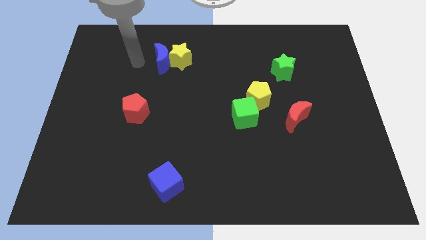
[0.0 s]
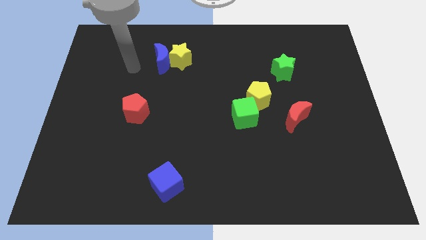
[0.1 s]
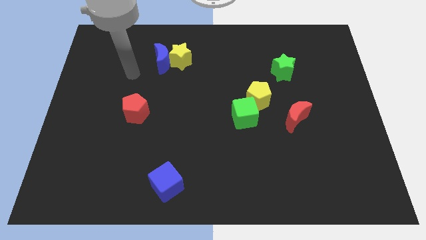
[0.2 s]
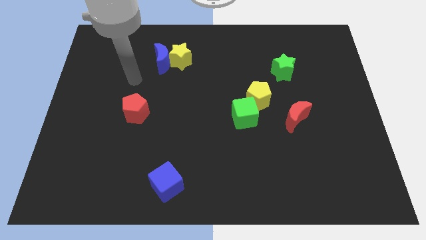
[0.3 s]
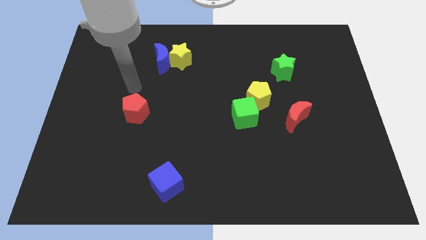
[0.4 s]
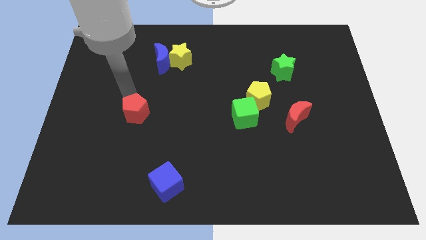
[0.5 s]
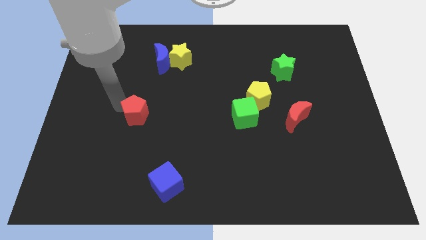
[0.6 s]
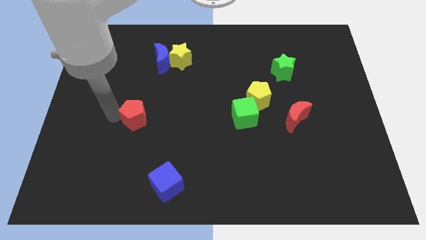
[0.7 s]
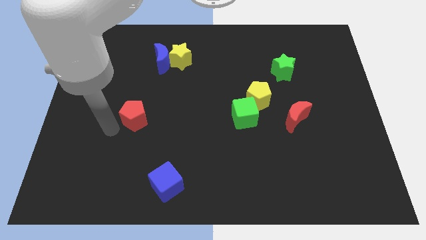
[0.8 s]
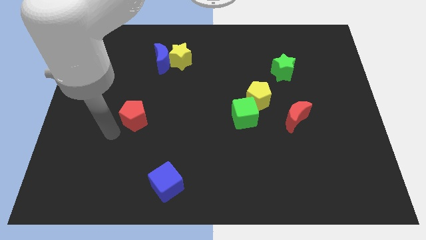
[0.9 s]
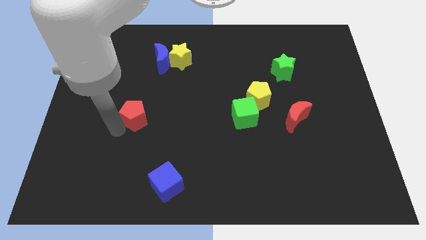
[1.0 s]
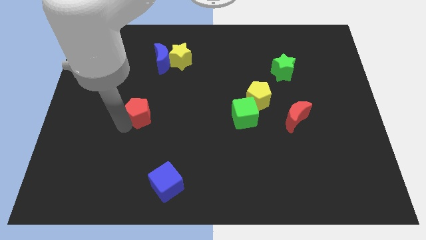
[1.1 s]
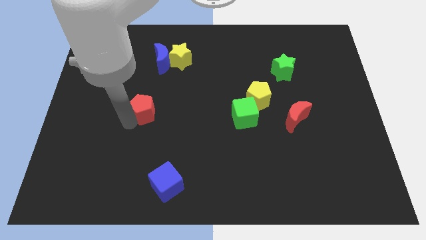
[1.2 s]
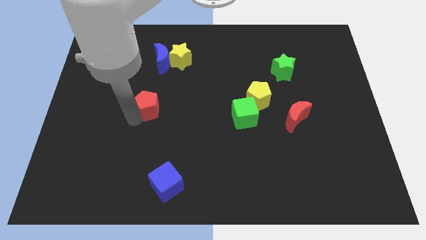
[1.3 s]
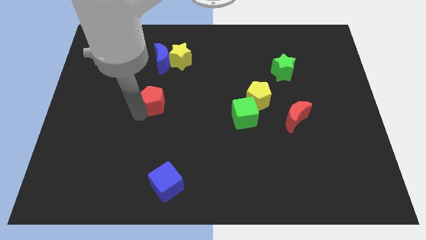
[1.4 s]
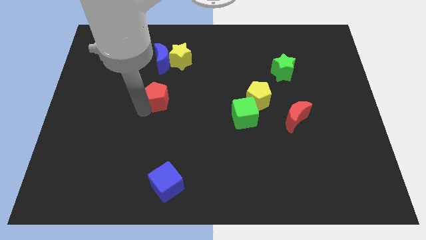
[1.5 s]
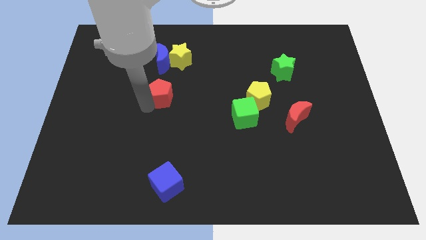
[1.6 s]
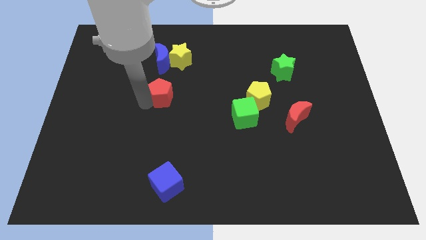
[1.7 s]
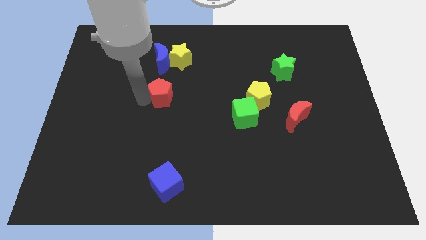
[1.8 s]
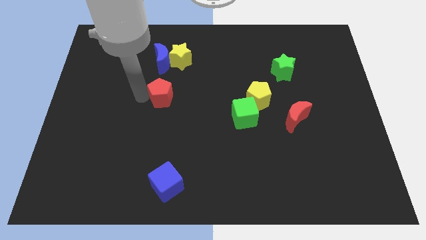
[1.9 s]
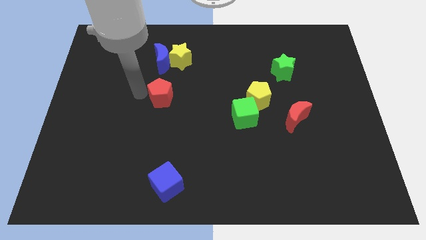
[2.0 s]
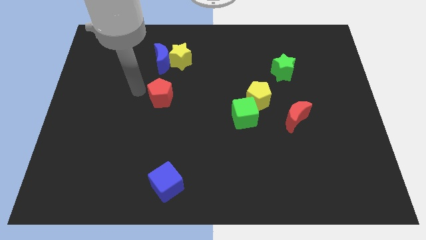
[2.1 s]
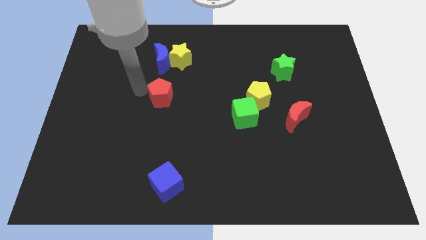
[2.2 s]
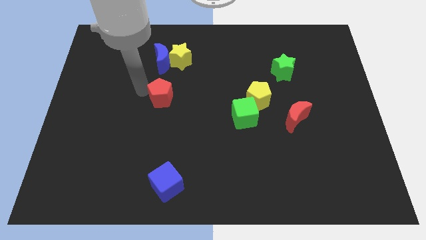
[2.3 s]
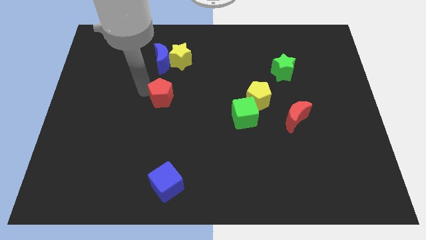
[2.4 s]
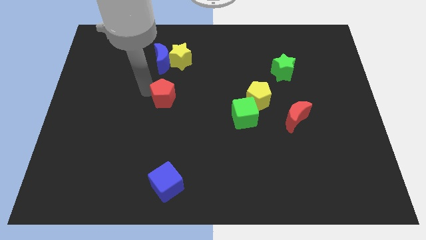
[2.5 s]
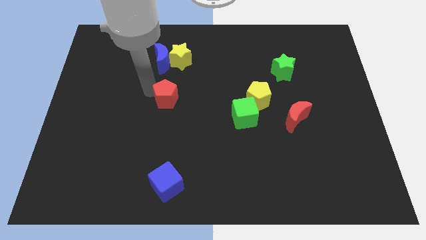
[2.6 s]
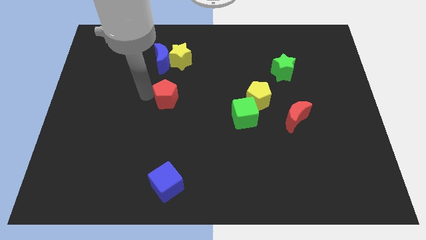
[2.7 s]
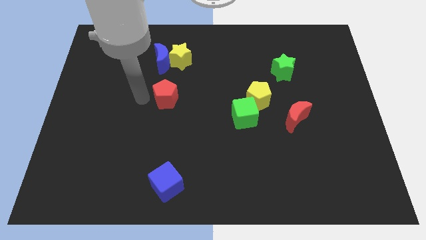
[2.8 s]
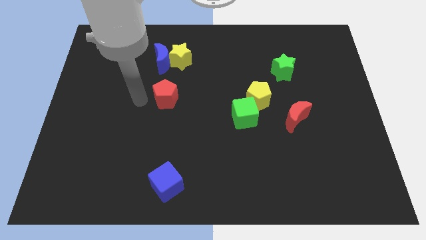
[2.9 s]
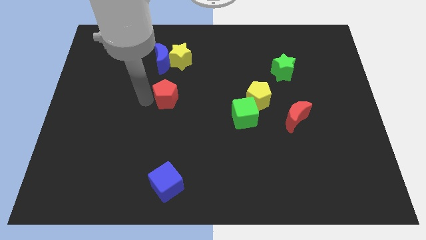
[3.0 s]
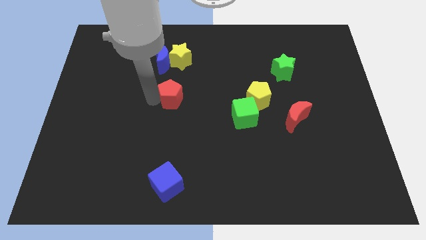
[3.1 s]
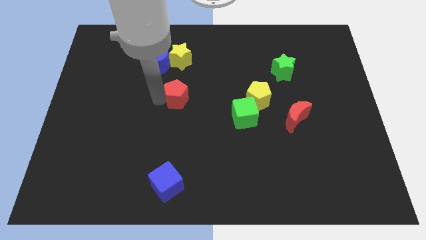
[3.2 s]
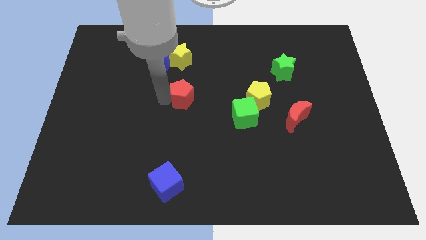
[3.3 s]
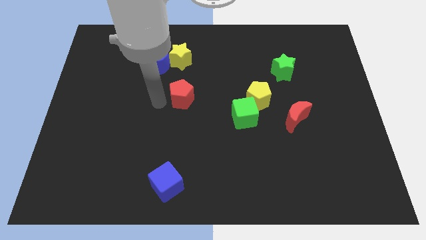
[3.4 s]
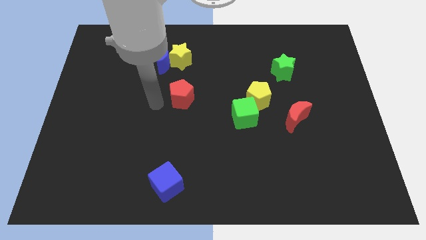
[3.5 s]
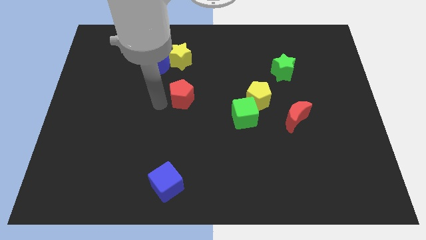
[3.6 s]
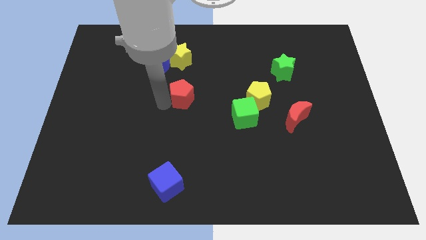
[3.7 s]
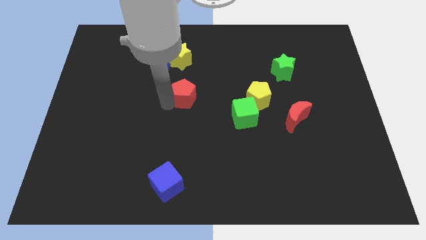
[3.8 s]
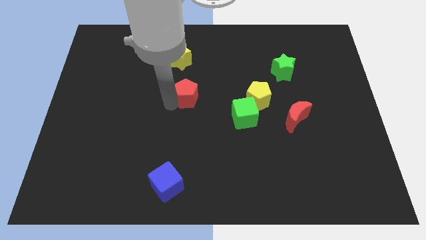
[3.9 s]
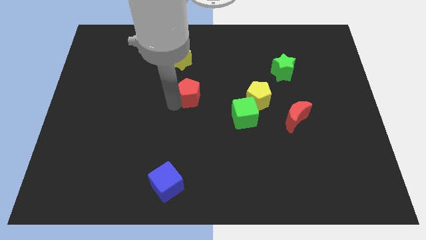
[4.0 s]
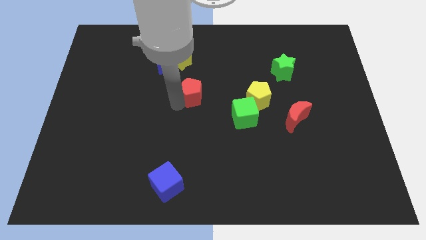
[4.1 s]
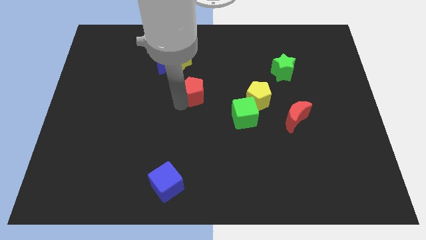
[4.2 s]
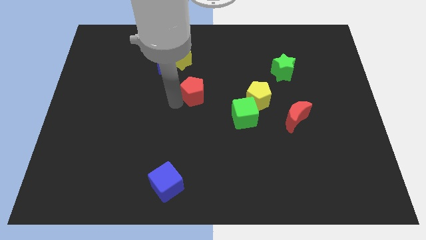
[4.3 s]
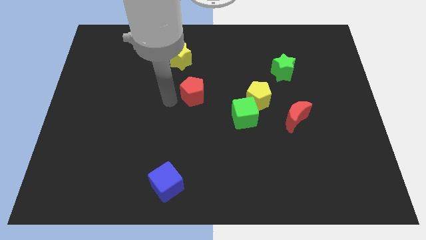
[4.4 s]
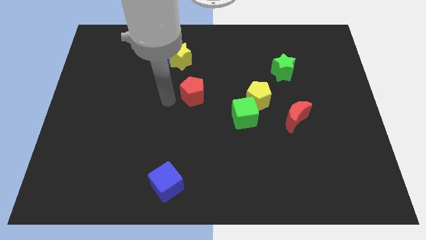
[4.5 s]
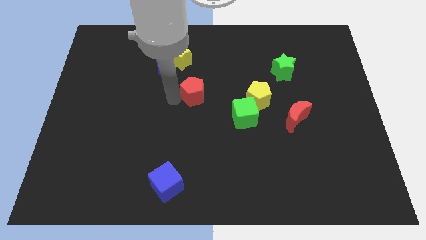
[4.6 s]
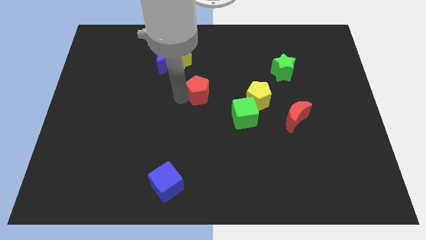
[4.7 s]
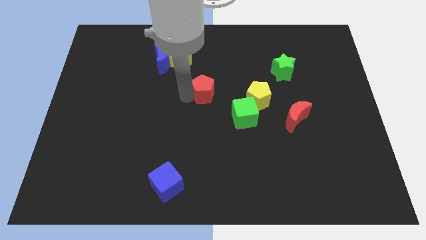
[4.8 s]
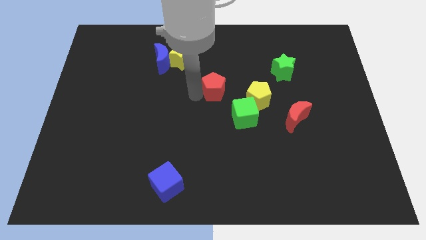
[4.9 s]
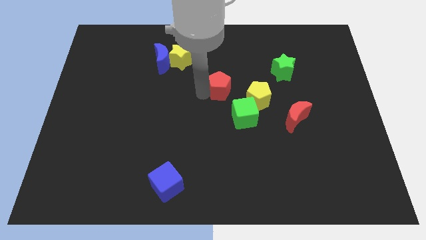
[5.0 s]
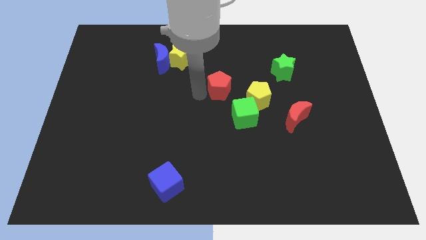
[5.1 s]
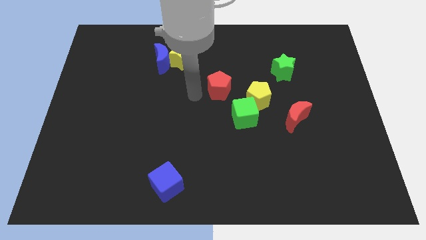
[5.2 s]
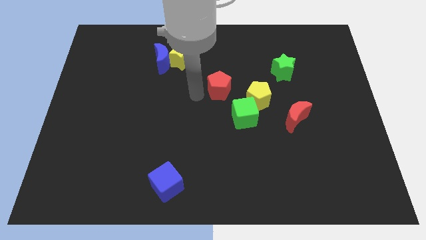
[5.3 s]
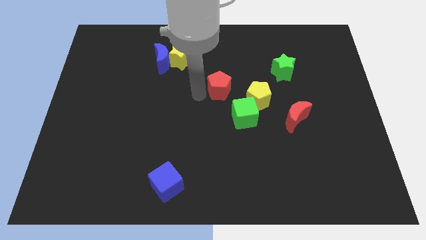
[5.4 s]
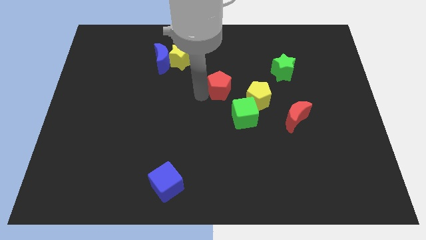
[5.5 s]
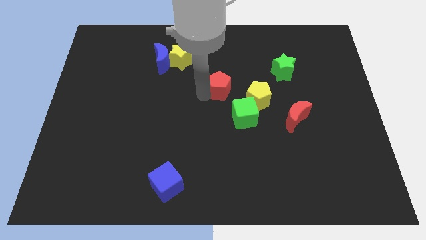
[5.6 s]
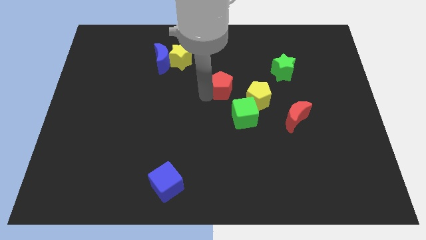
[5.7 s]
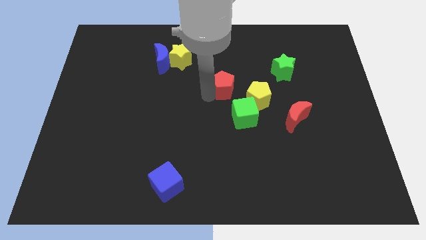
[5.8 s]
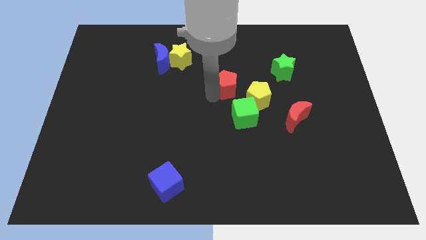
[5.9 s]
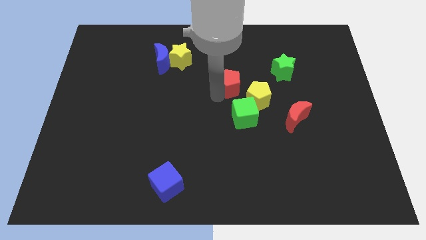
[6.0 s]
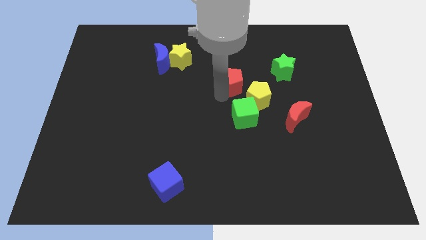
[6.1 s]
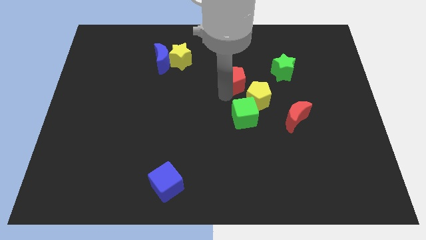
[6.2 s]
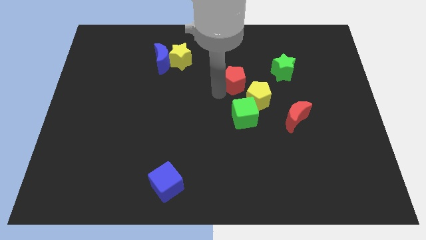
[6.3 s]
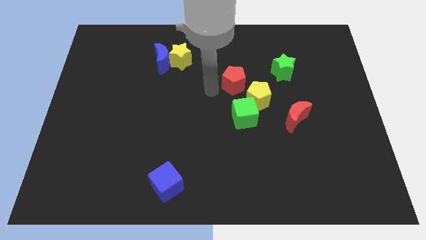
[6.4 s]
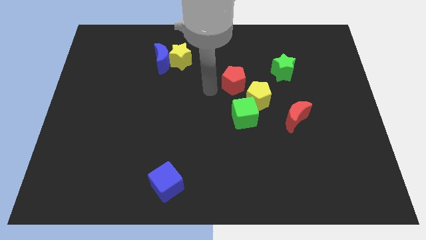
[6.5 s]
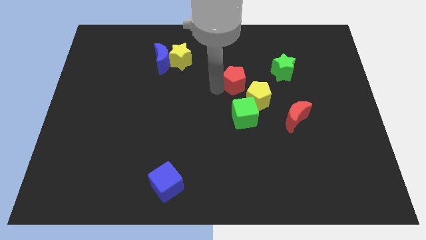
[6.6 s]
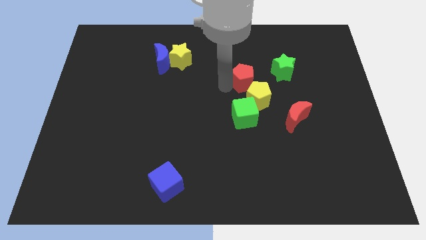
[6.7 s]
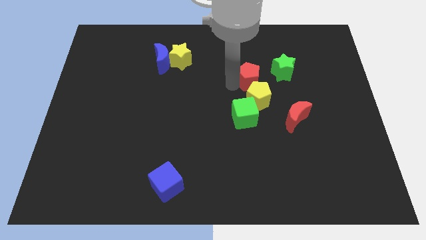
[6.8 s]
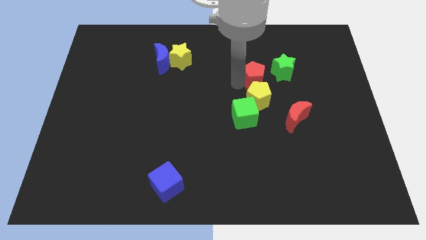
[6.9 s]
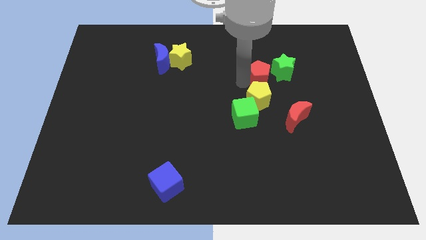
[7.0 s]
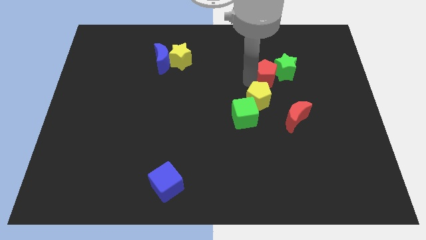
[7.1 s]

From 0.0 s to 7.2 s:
slide the red pentagon next to the green star
